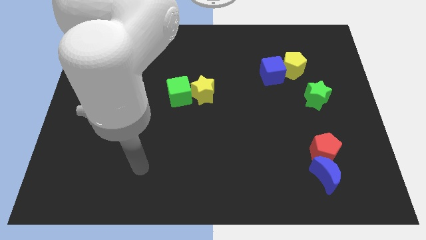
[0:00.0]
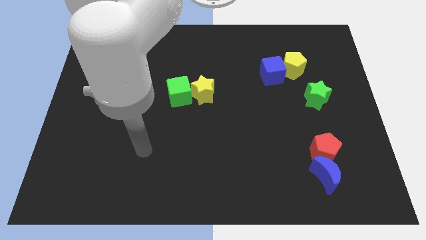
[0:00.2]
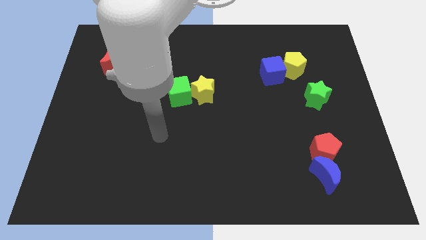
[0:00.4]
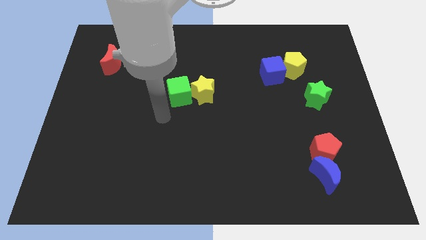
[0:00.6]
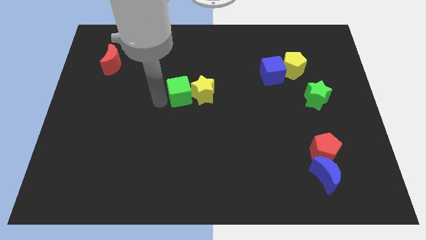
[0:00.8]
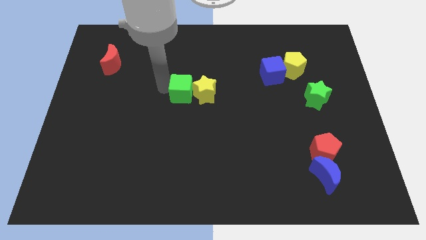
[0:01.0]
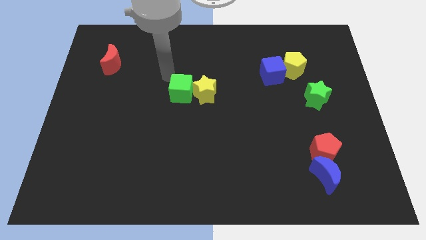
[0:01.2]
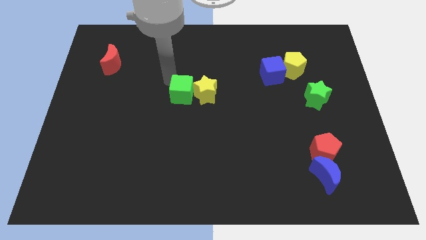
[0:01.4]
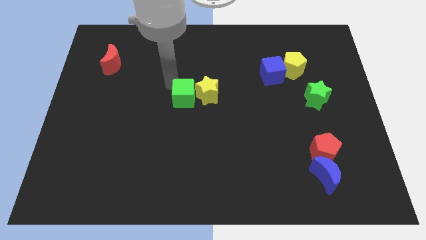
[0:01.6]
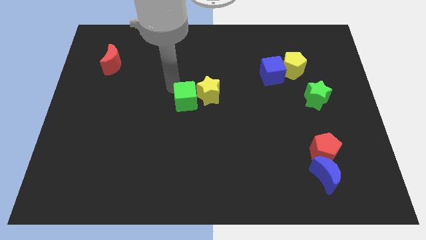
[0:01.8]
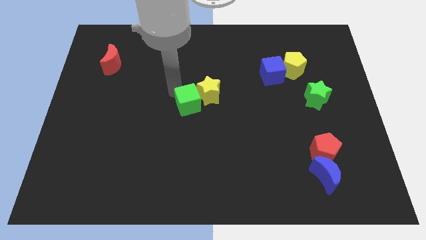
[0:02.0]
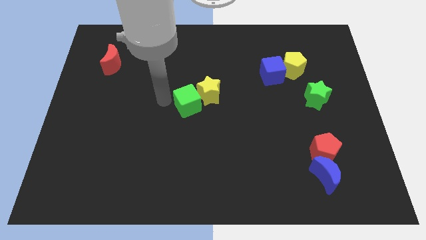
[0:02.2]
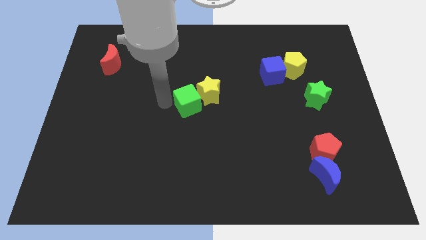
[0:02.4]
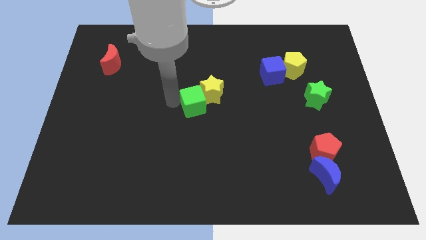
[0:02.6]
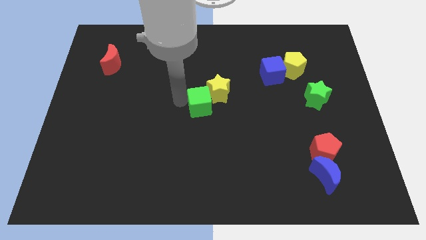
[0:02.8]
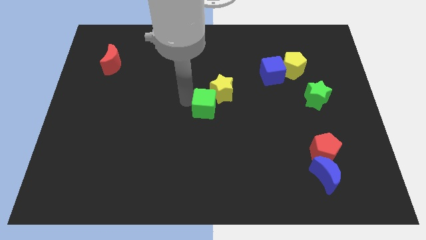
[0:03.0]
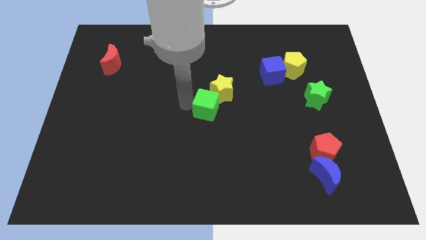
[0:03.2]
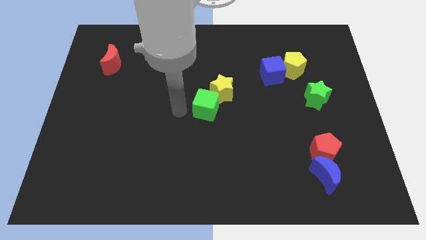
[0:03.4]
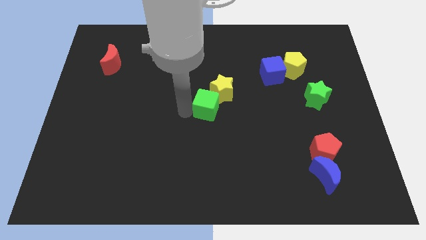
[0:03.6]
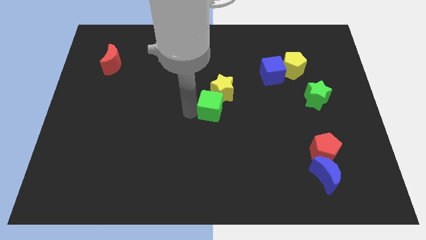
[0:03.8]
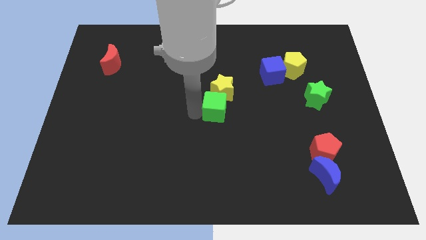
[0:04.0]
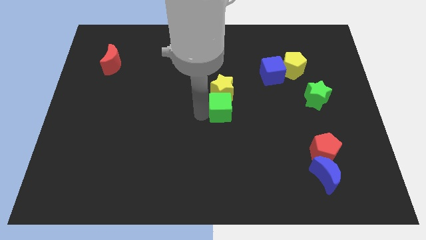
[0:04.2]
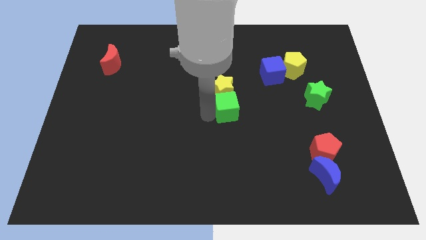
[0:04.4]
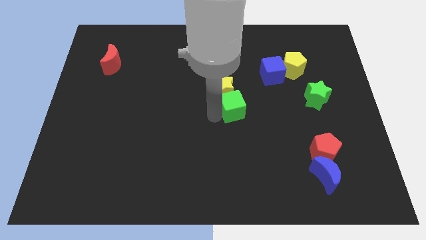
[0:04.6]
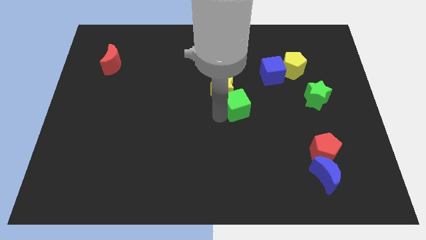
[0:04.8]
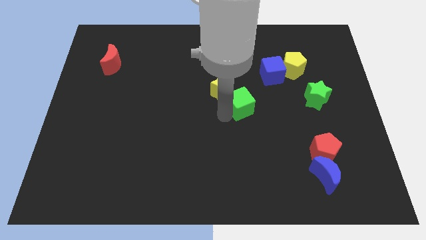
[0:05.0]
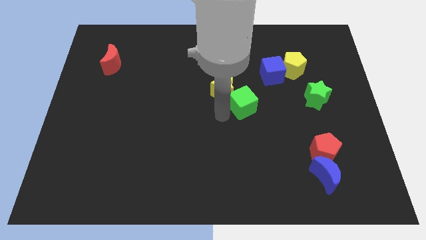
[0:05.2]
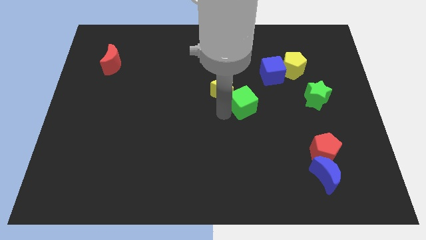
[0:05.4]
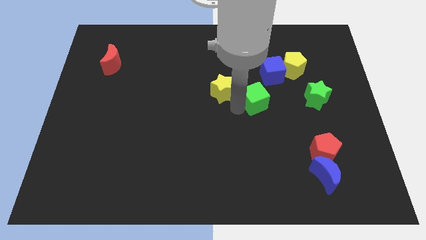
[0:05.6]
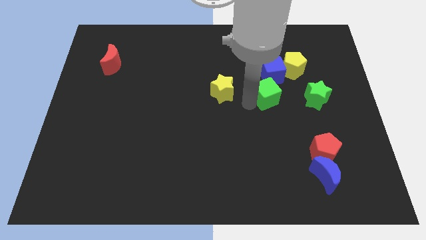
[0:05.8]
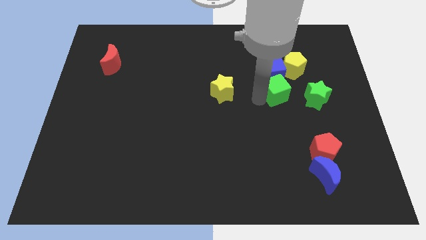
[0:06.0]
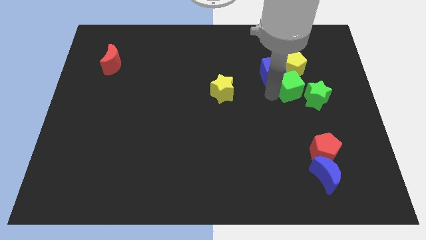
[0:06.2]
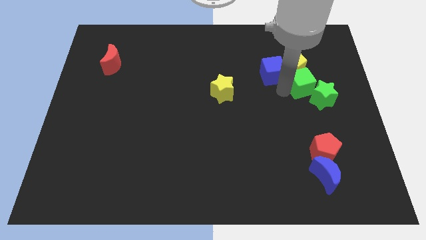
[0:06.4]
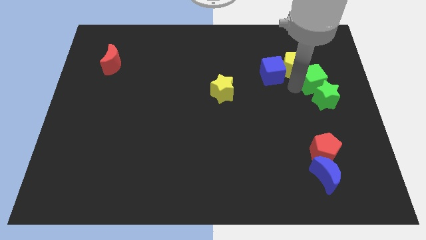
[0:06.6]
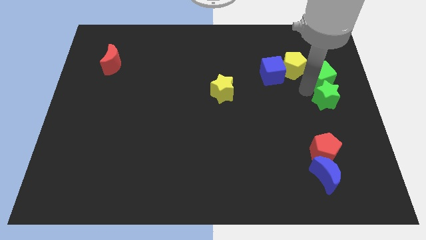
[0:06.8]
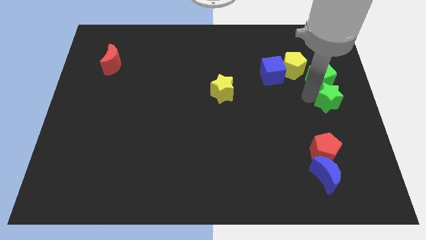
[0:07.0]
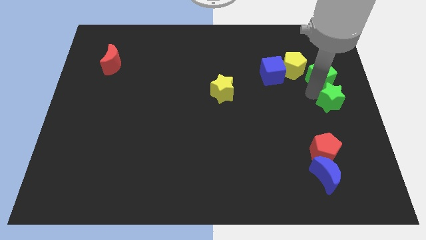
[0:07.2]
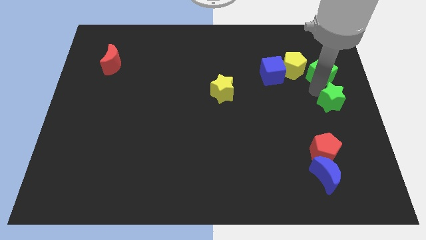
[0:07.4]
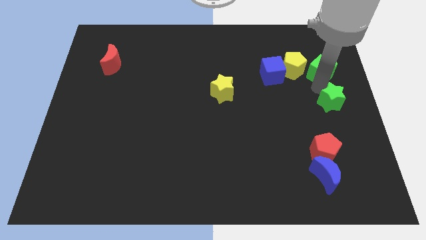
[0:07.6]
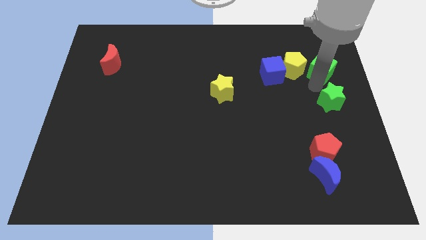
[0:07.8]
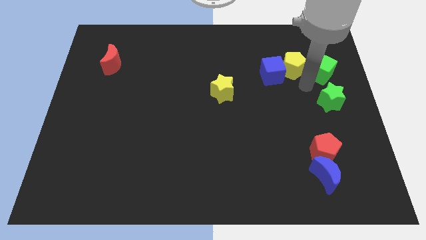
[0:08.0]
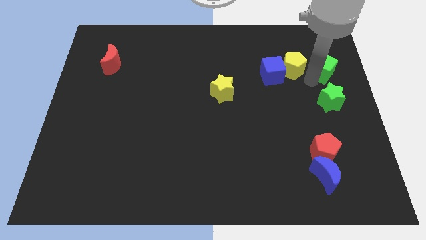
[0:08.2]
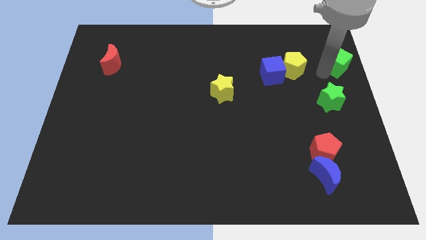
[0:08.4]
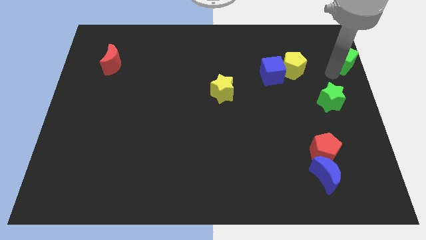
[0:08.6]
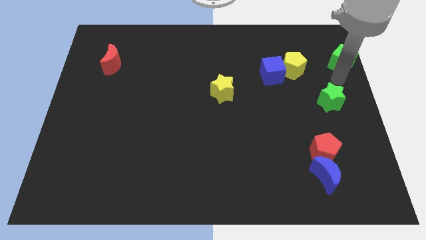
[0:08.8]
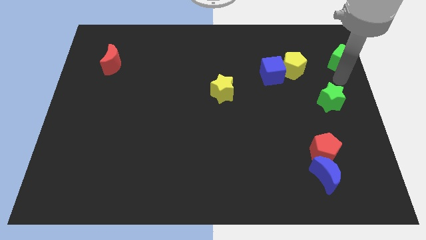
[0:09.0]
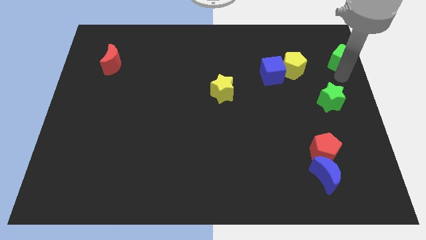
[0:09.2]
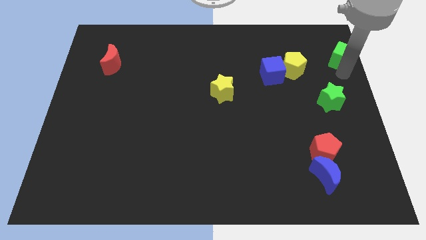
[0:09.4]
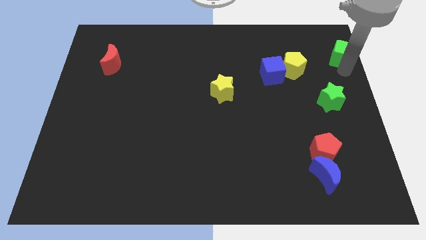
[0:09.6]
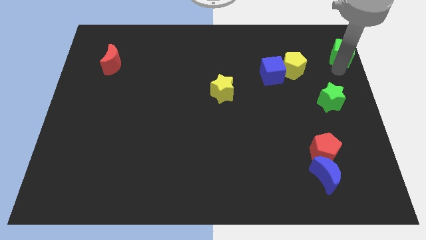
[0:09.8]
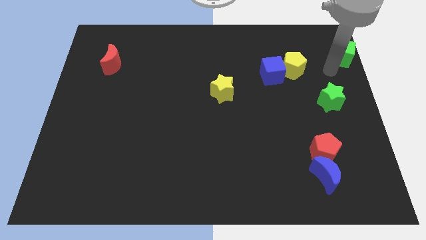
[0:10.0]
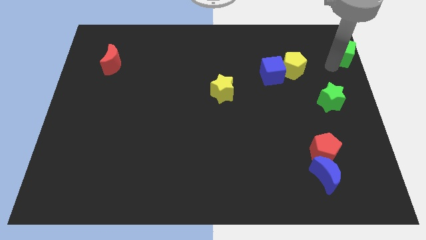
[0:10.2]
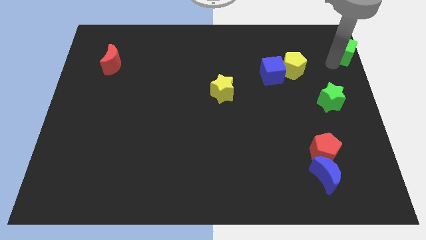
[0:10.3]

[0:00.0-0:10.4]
put the green cube to the top right of the board

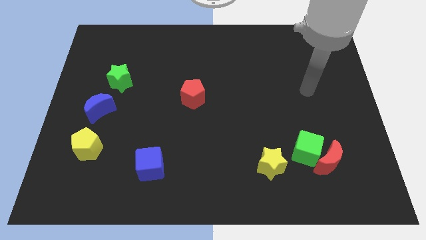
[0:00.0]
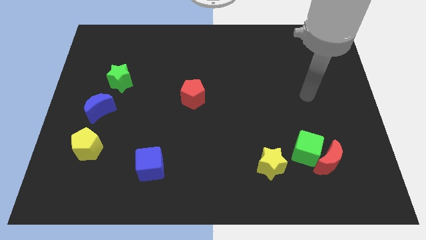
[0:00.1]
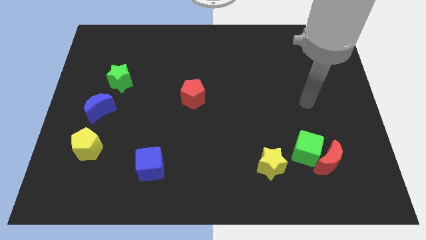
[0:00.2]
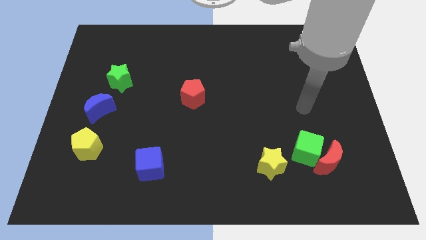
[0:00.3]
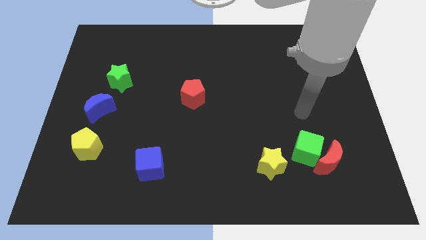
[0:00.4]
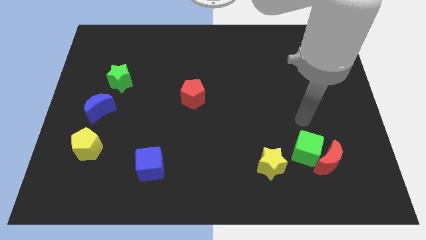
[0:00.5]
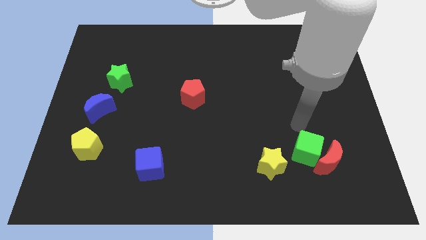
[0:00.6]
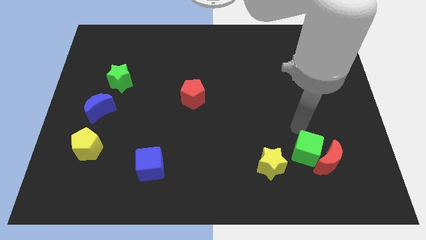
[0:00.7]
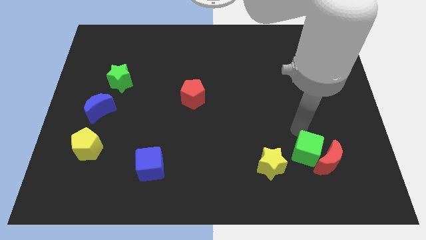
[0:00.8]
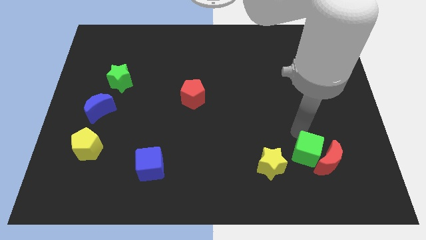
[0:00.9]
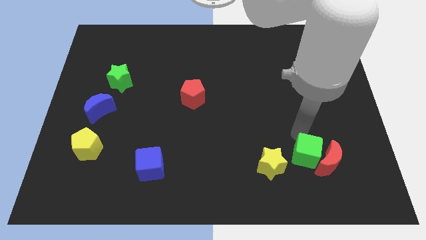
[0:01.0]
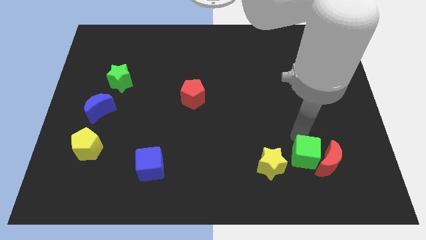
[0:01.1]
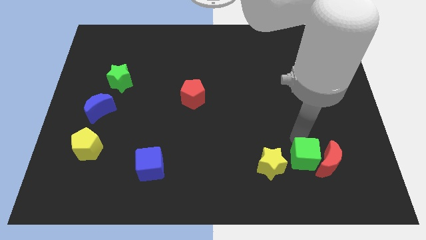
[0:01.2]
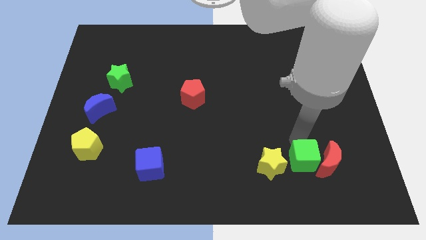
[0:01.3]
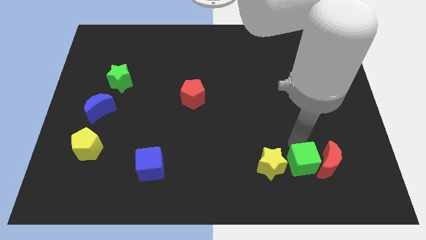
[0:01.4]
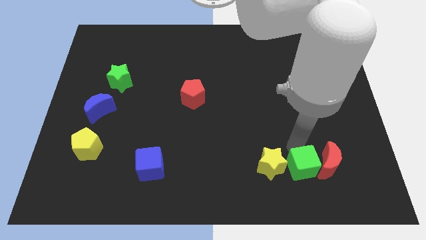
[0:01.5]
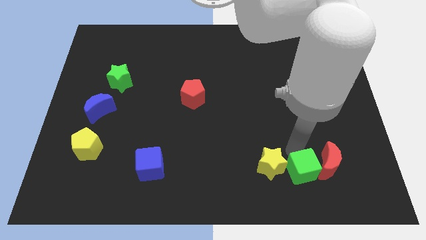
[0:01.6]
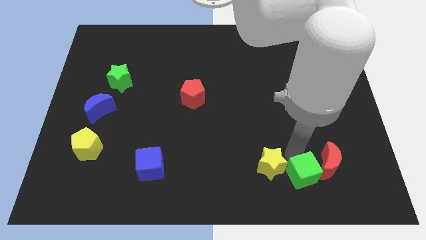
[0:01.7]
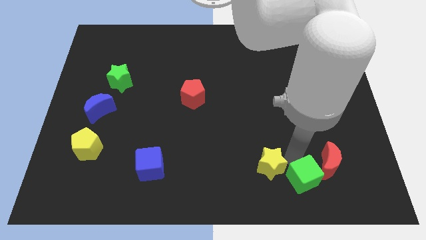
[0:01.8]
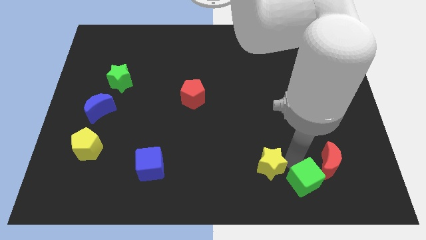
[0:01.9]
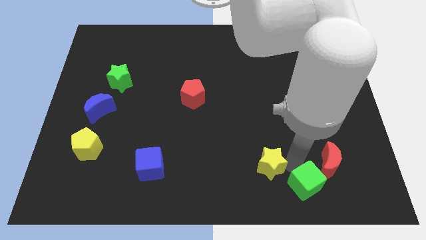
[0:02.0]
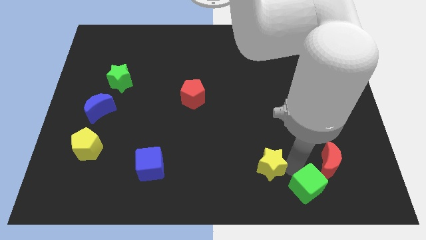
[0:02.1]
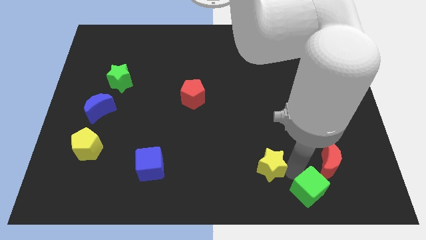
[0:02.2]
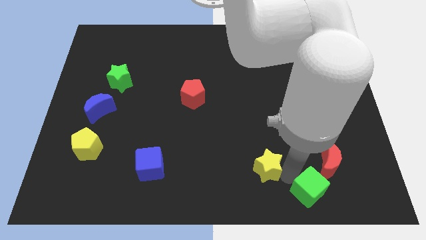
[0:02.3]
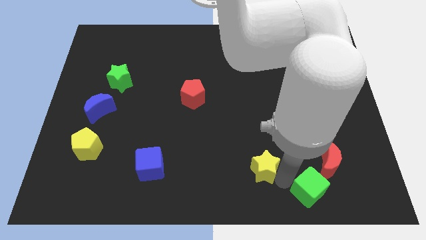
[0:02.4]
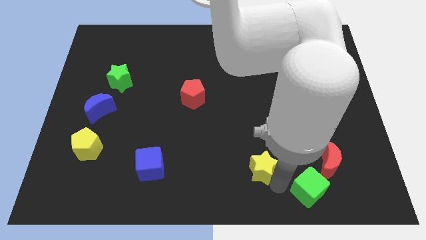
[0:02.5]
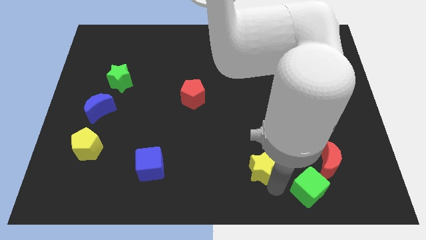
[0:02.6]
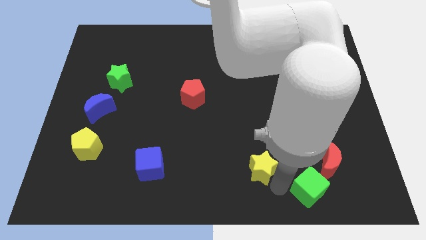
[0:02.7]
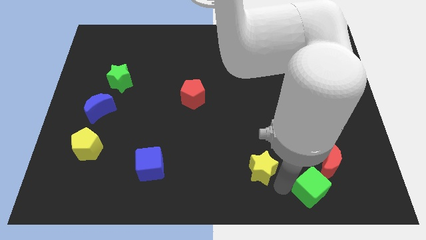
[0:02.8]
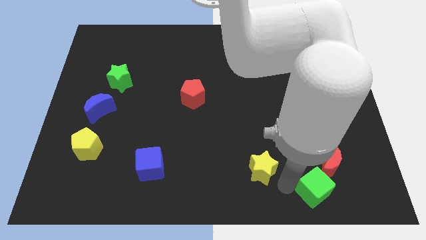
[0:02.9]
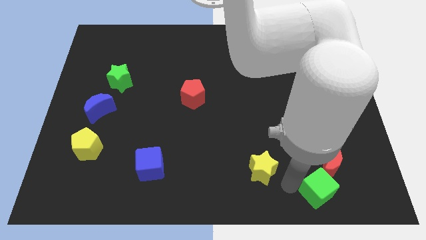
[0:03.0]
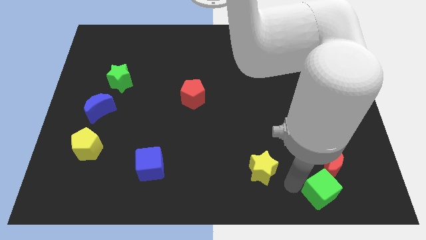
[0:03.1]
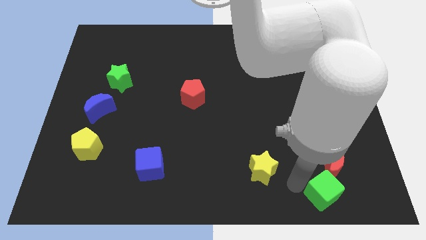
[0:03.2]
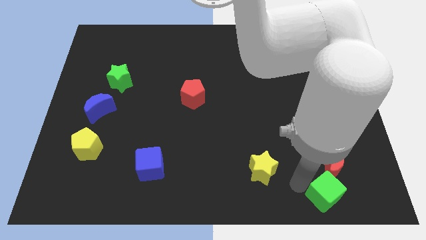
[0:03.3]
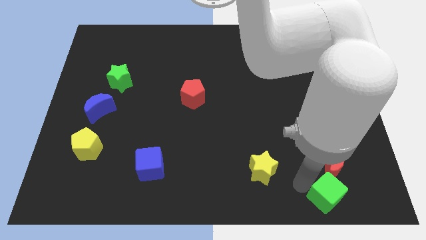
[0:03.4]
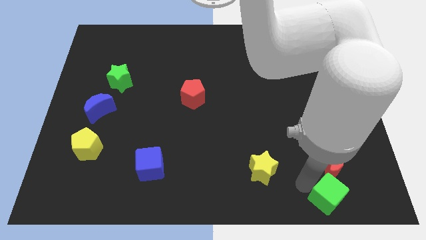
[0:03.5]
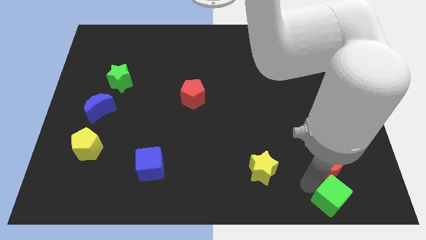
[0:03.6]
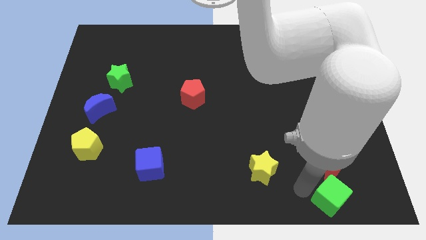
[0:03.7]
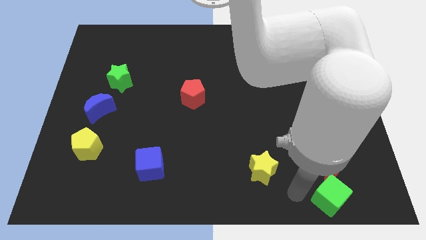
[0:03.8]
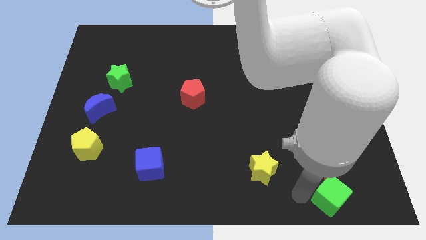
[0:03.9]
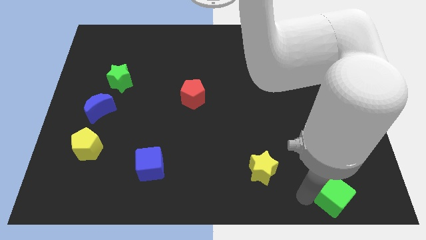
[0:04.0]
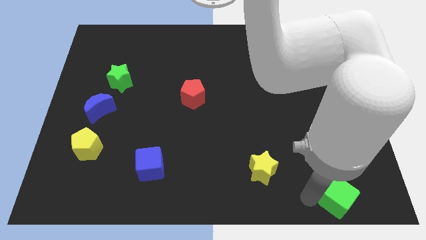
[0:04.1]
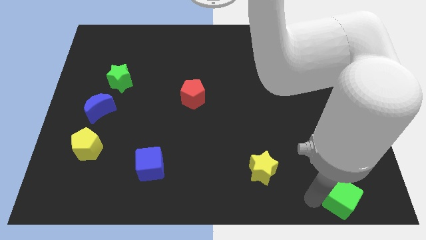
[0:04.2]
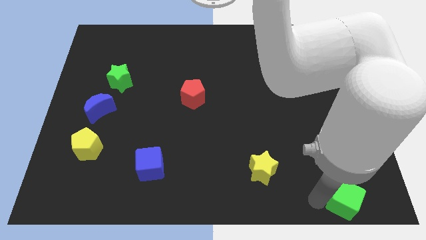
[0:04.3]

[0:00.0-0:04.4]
slide the green cube to the bottom right of the board
